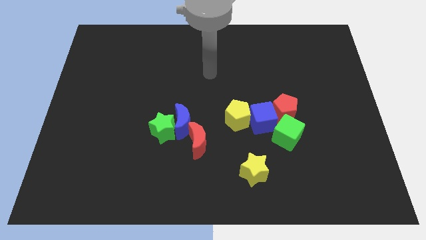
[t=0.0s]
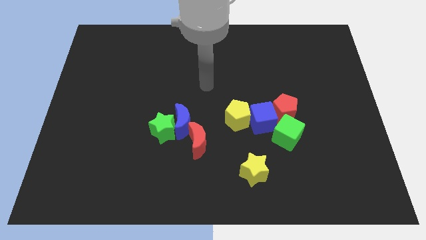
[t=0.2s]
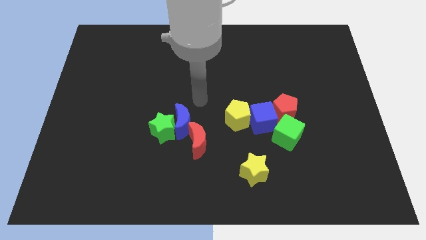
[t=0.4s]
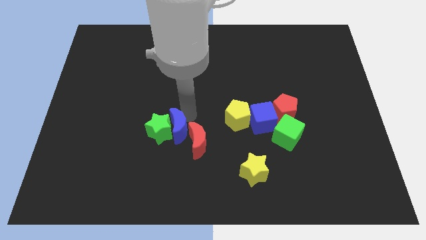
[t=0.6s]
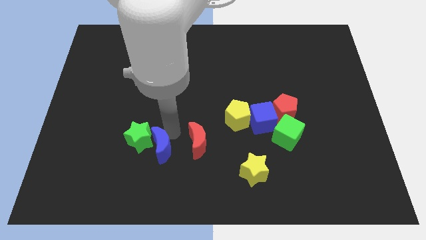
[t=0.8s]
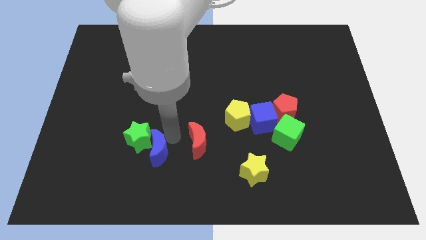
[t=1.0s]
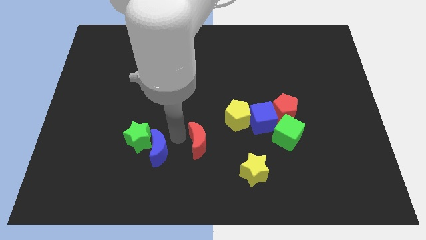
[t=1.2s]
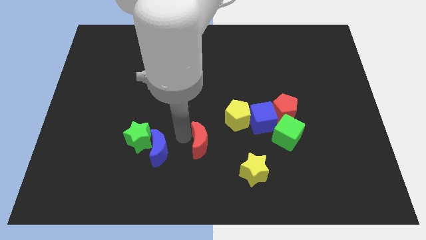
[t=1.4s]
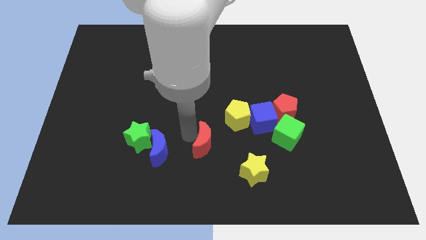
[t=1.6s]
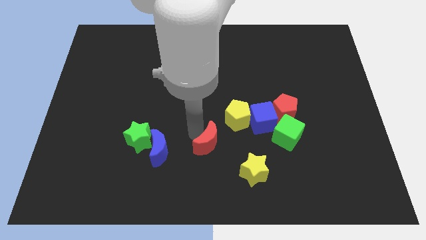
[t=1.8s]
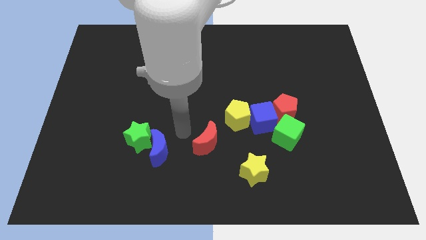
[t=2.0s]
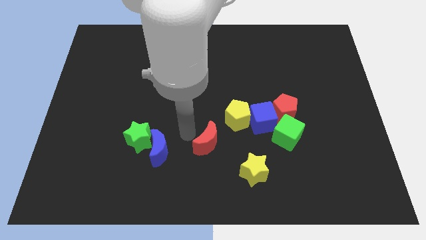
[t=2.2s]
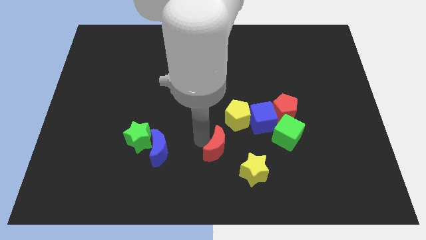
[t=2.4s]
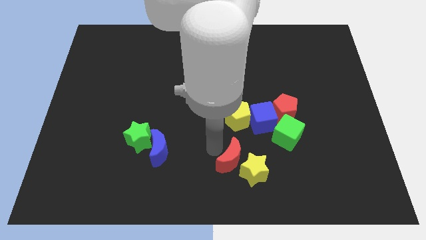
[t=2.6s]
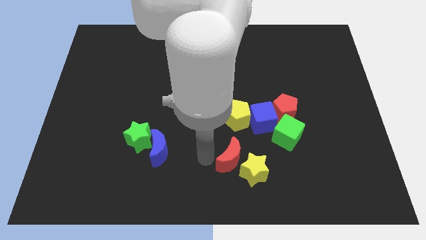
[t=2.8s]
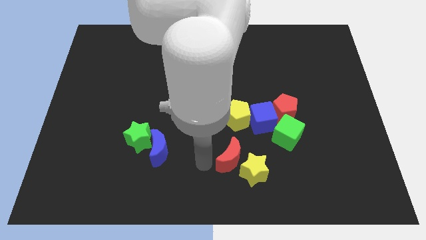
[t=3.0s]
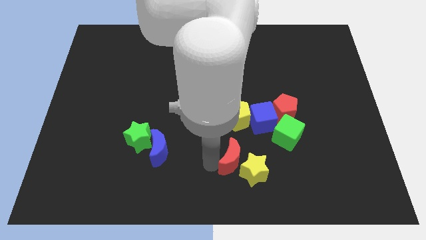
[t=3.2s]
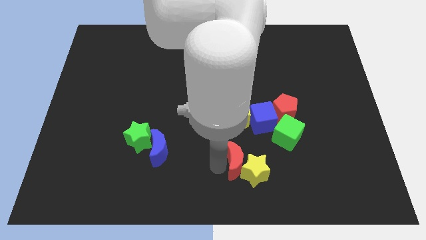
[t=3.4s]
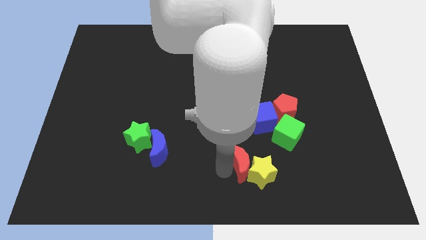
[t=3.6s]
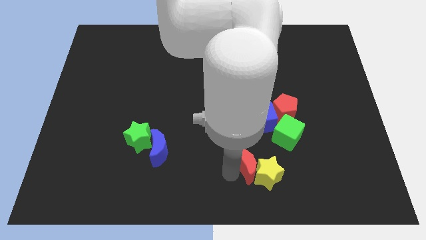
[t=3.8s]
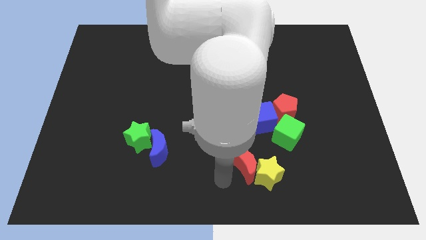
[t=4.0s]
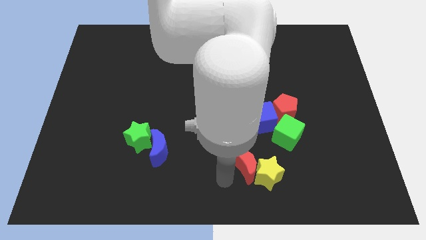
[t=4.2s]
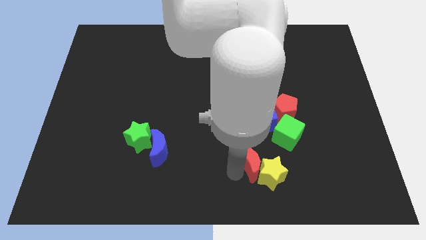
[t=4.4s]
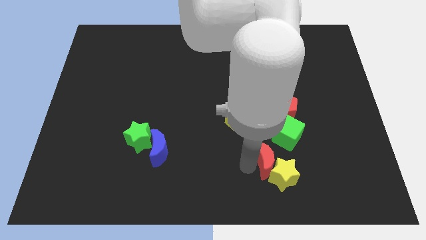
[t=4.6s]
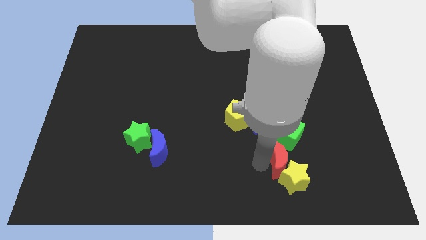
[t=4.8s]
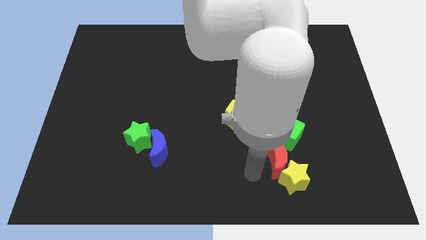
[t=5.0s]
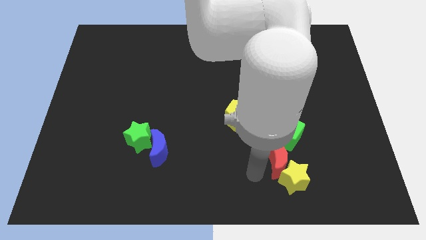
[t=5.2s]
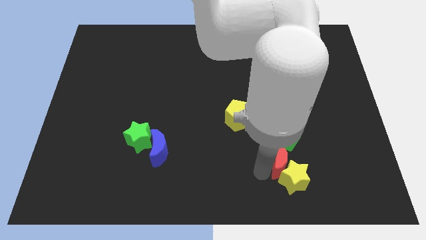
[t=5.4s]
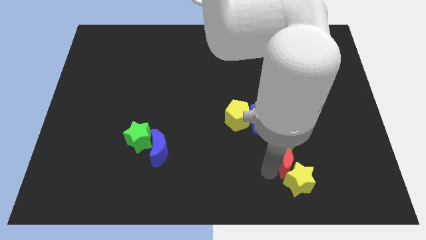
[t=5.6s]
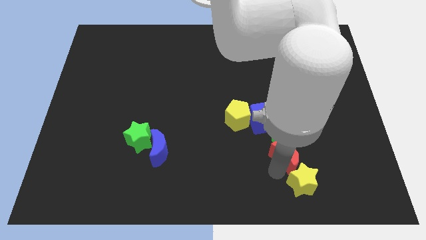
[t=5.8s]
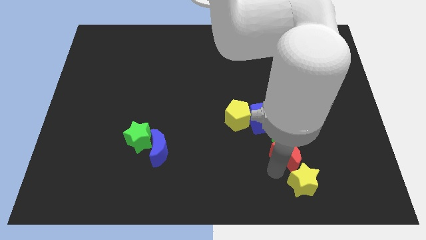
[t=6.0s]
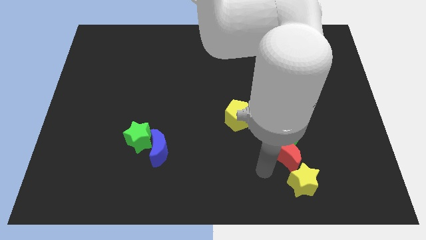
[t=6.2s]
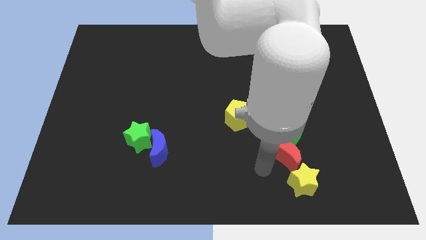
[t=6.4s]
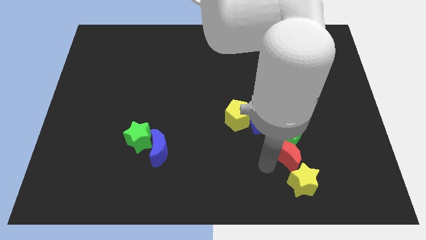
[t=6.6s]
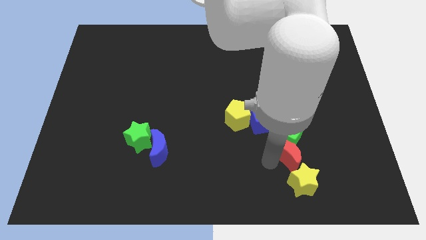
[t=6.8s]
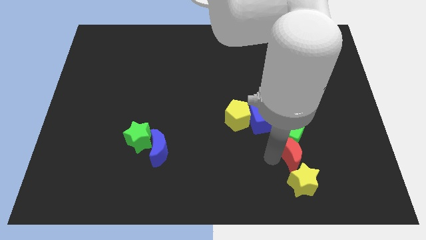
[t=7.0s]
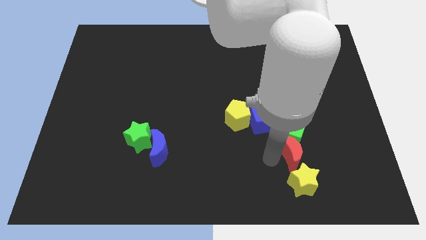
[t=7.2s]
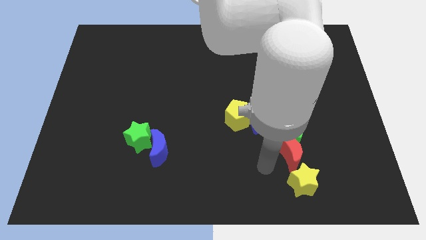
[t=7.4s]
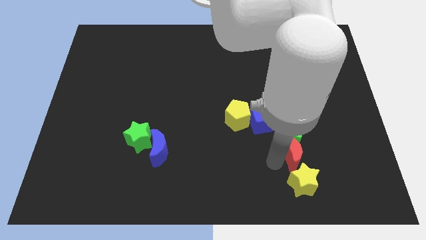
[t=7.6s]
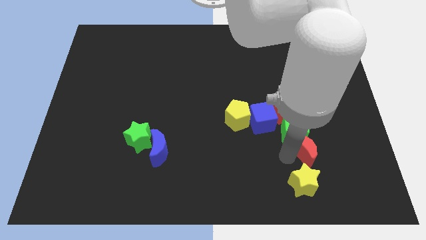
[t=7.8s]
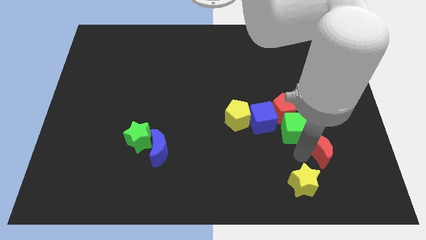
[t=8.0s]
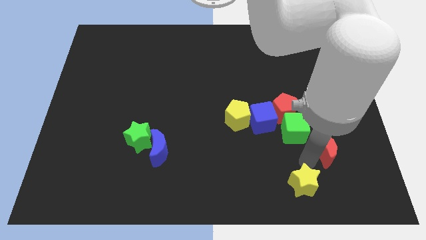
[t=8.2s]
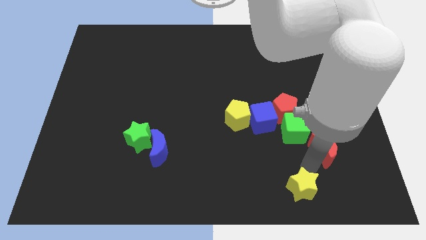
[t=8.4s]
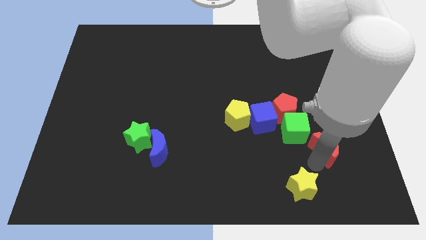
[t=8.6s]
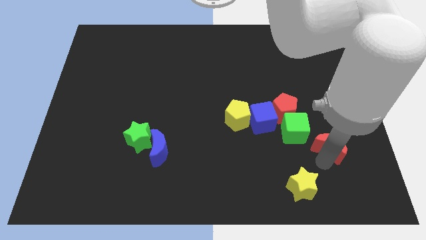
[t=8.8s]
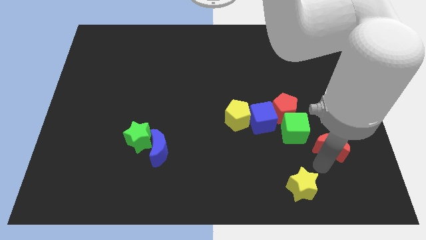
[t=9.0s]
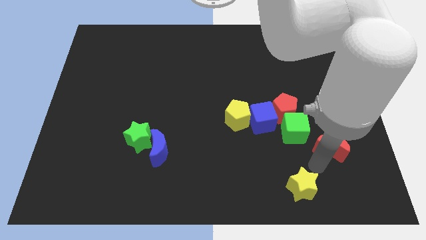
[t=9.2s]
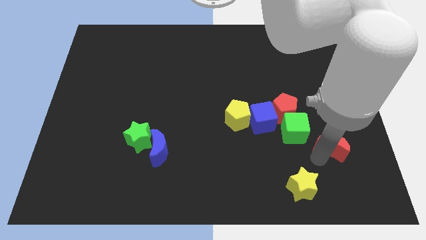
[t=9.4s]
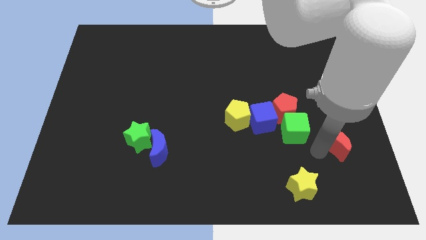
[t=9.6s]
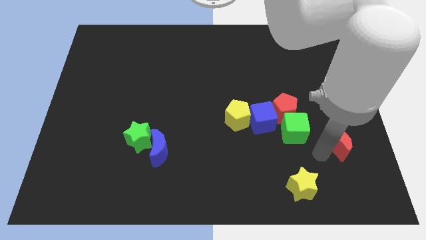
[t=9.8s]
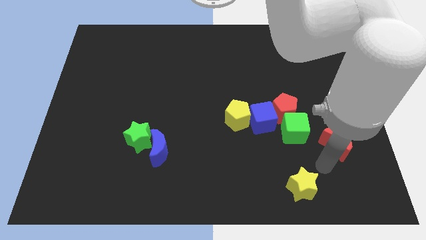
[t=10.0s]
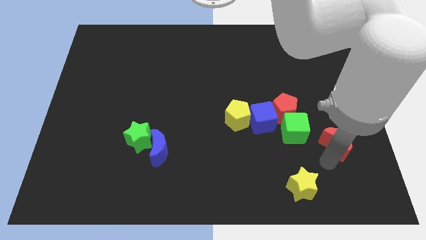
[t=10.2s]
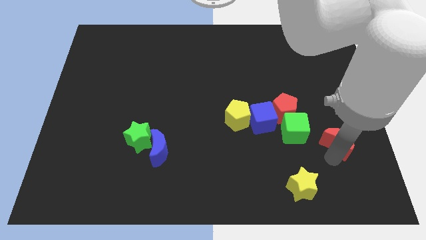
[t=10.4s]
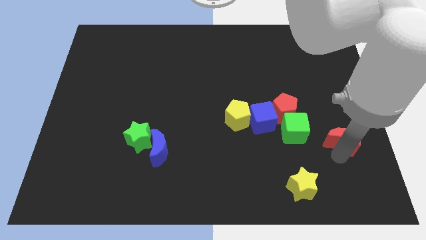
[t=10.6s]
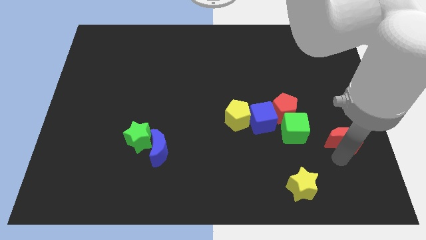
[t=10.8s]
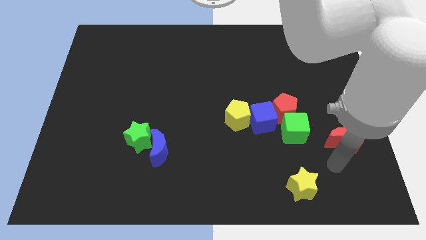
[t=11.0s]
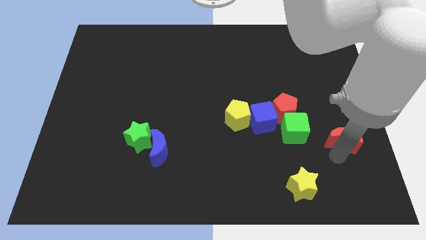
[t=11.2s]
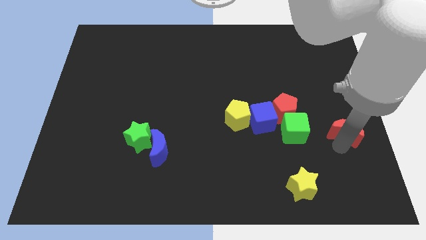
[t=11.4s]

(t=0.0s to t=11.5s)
push the red moon to the right side
